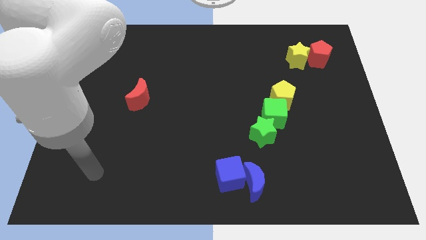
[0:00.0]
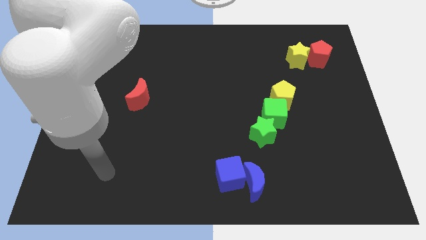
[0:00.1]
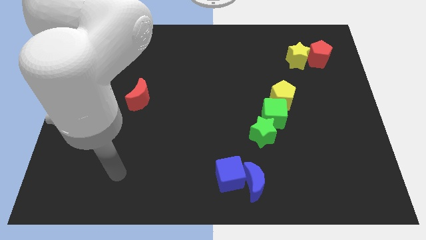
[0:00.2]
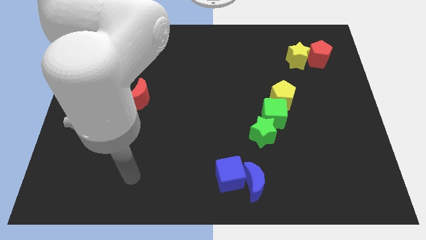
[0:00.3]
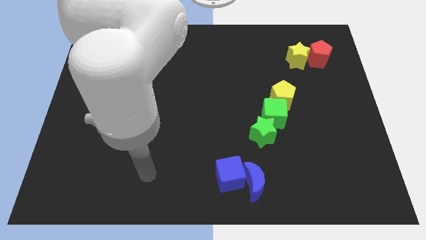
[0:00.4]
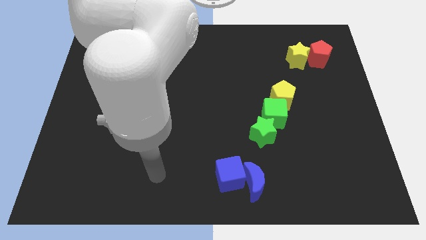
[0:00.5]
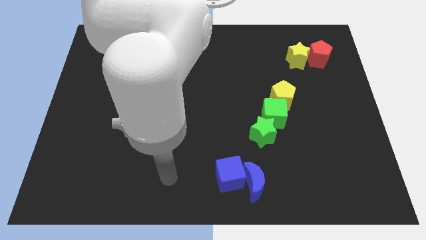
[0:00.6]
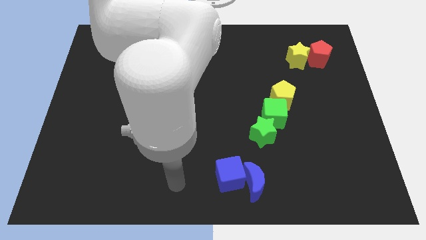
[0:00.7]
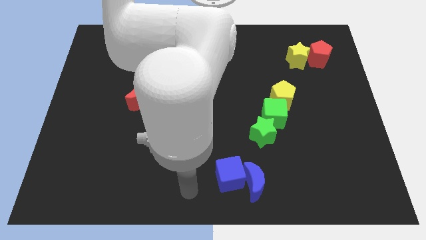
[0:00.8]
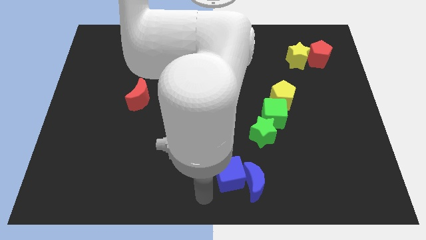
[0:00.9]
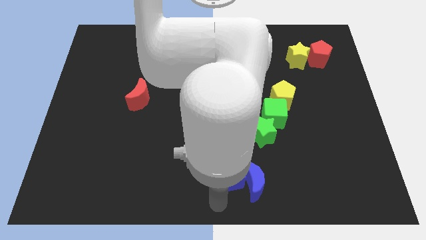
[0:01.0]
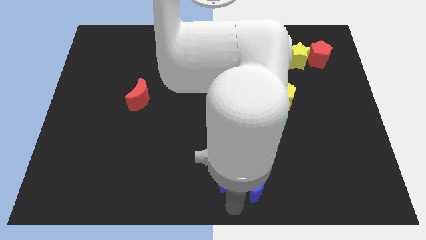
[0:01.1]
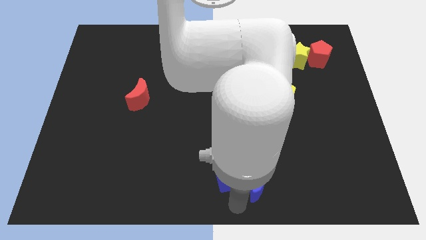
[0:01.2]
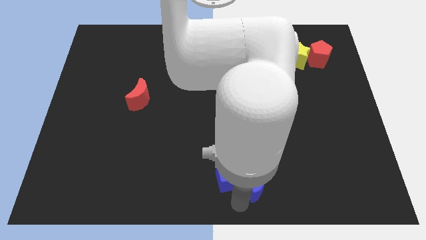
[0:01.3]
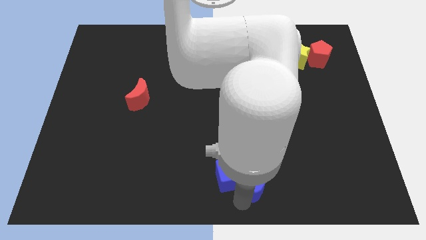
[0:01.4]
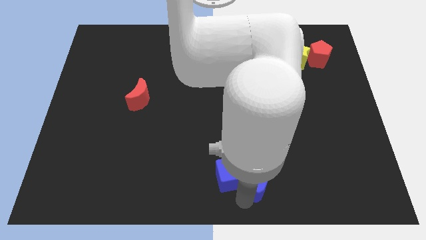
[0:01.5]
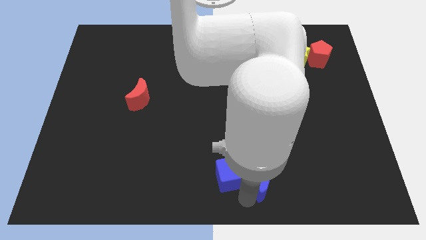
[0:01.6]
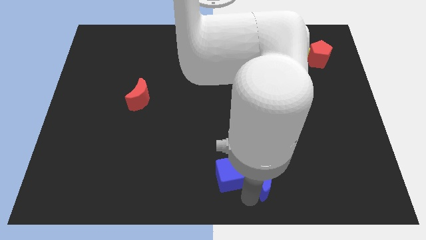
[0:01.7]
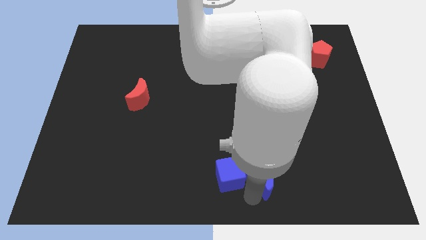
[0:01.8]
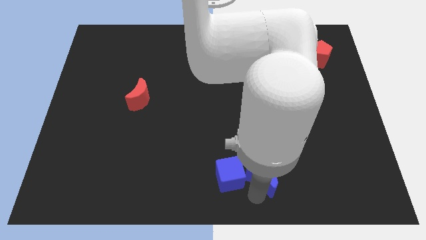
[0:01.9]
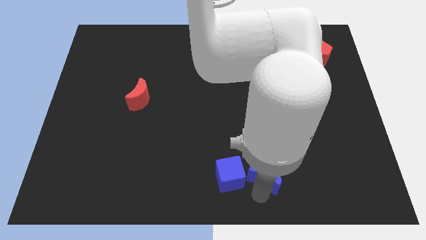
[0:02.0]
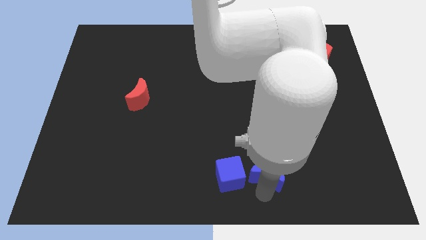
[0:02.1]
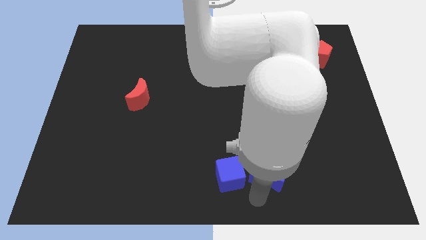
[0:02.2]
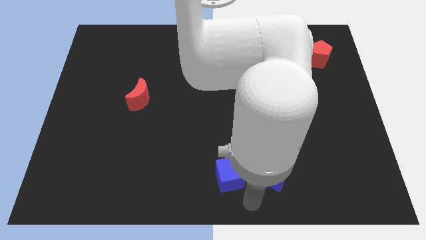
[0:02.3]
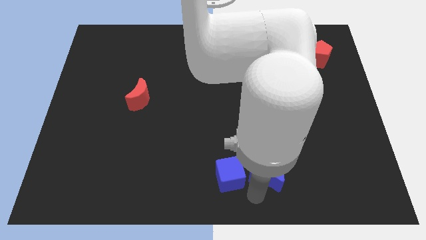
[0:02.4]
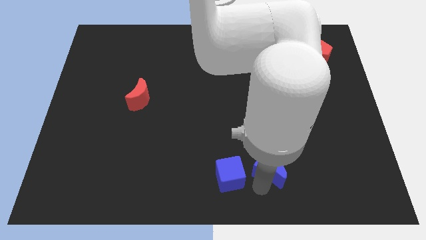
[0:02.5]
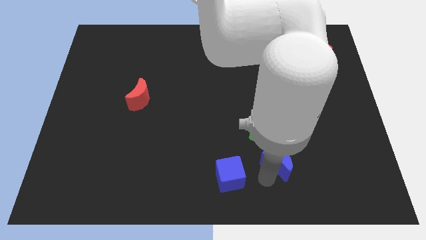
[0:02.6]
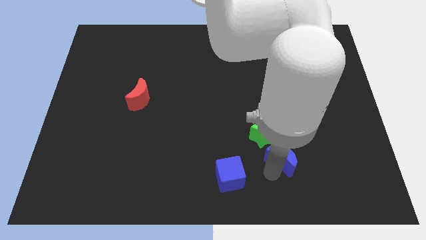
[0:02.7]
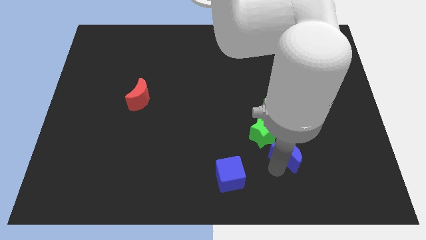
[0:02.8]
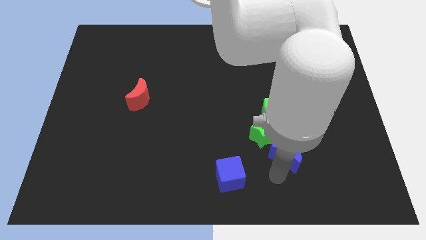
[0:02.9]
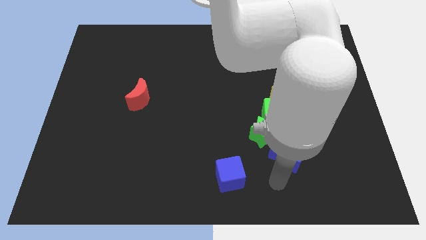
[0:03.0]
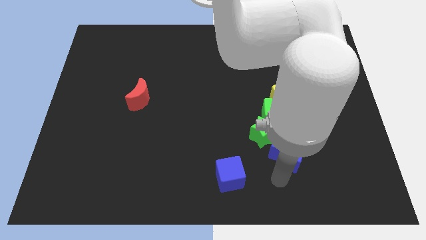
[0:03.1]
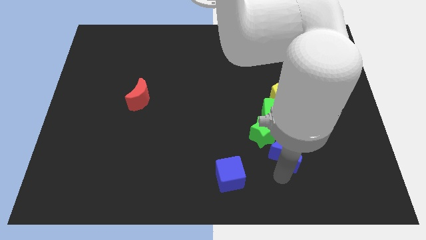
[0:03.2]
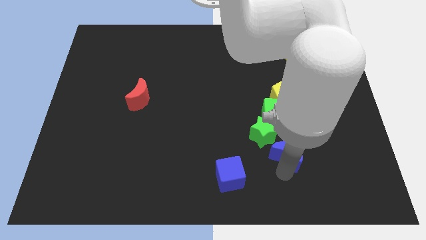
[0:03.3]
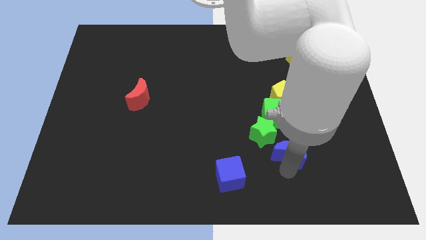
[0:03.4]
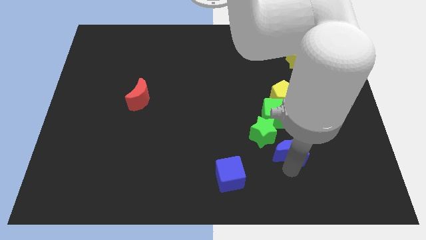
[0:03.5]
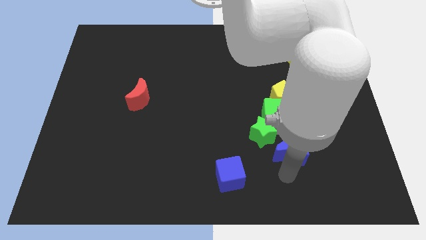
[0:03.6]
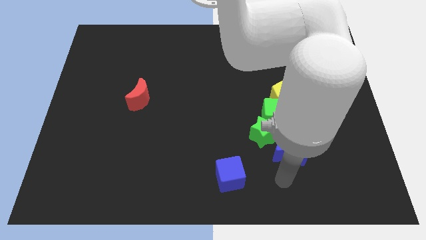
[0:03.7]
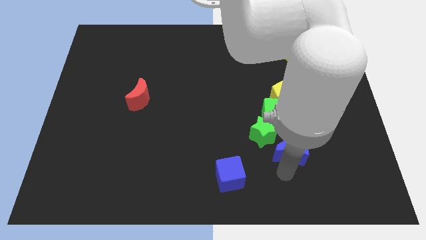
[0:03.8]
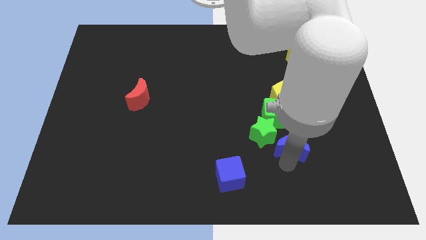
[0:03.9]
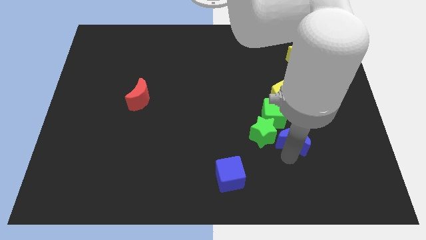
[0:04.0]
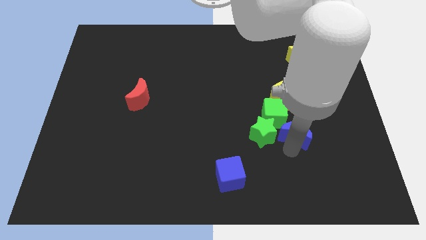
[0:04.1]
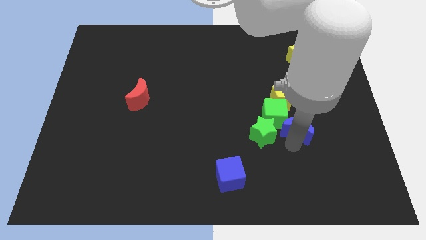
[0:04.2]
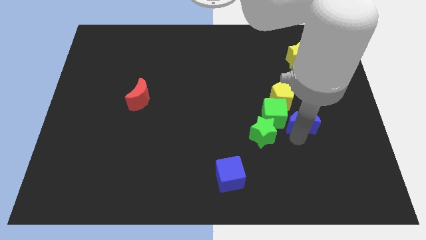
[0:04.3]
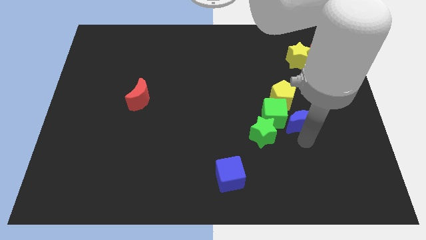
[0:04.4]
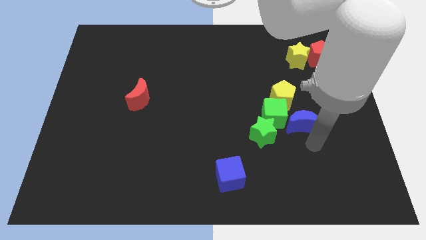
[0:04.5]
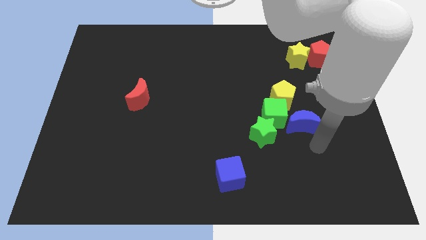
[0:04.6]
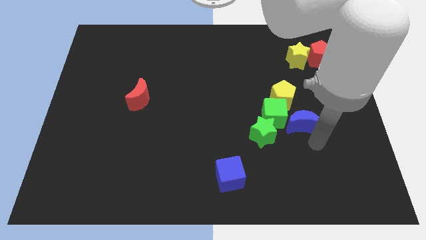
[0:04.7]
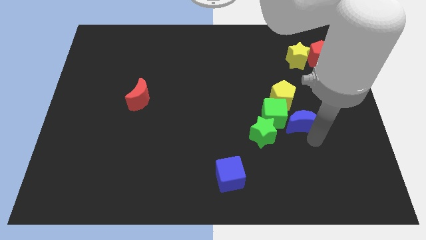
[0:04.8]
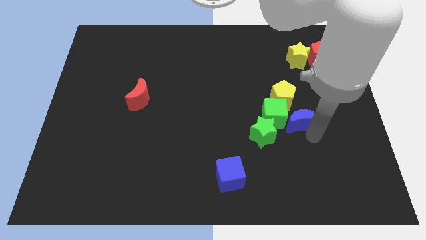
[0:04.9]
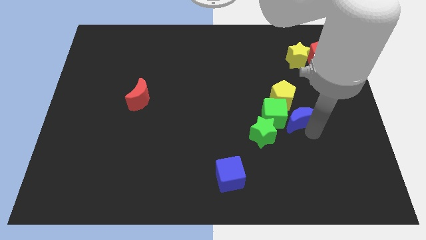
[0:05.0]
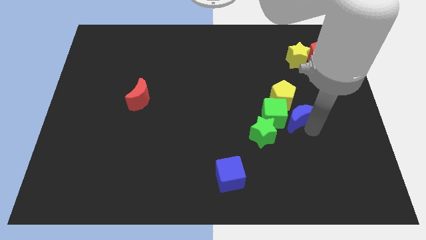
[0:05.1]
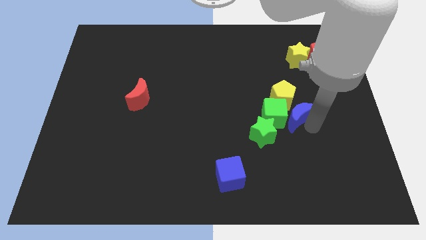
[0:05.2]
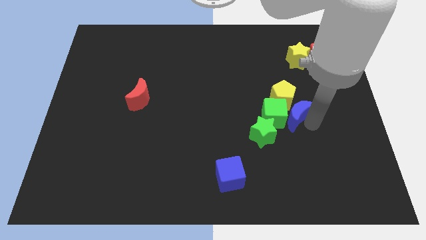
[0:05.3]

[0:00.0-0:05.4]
push the blue moon towards the yellow pentagon
